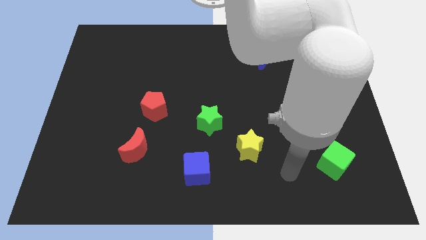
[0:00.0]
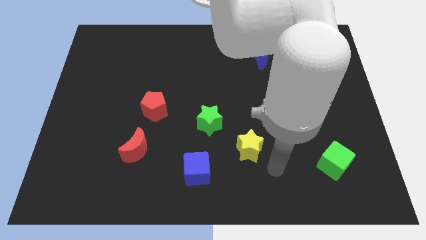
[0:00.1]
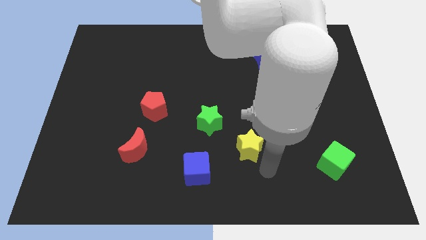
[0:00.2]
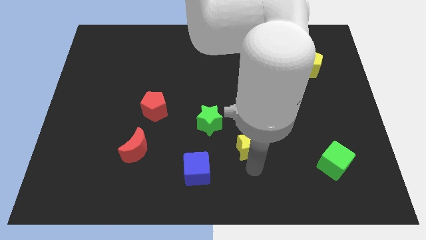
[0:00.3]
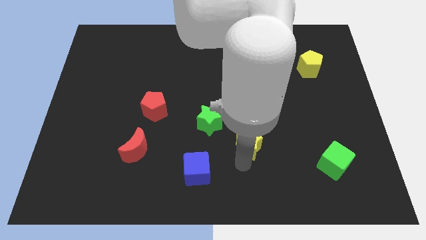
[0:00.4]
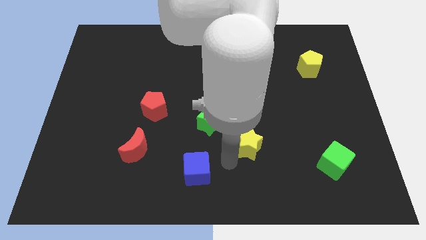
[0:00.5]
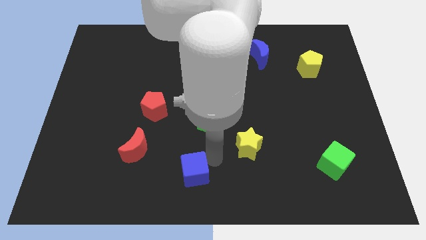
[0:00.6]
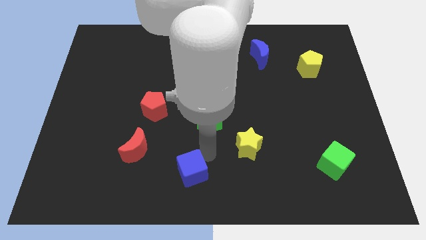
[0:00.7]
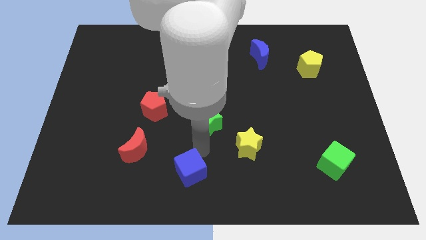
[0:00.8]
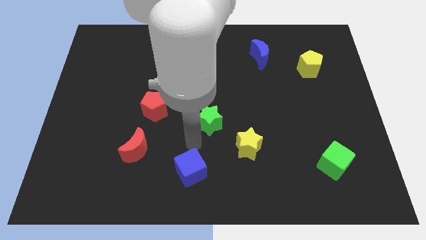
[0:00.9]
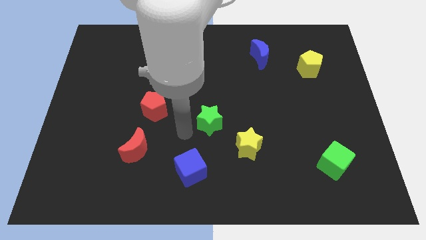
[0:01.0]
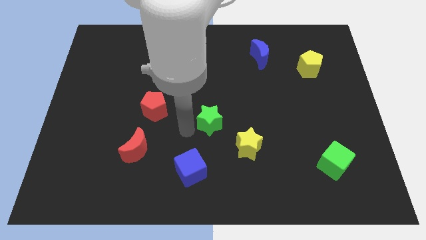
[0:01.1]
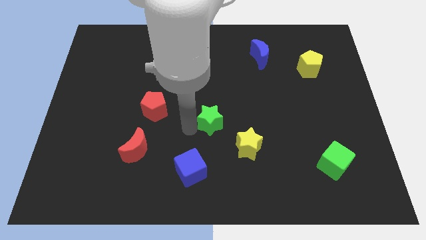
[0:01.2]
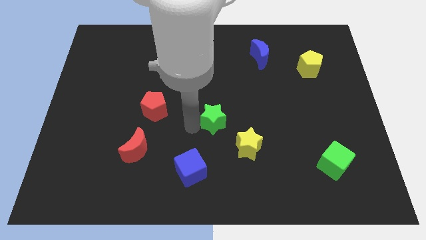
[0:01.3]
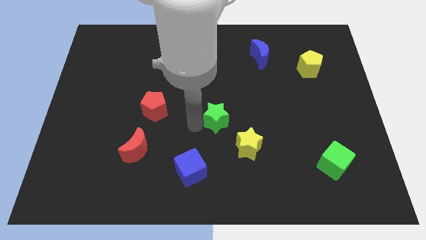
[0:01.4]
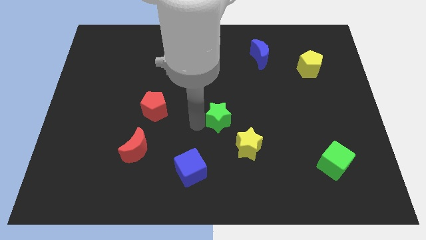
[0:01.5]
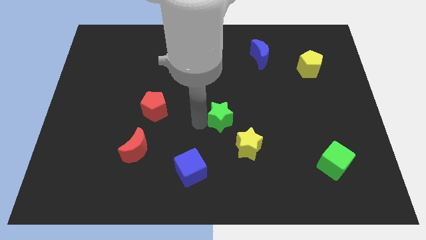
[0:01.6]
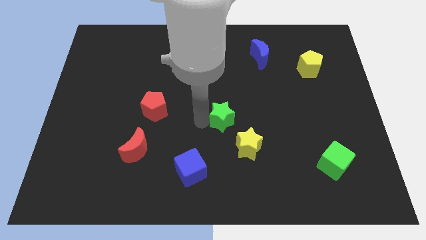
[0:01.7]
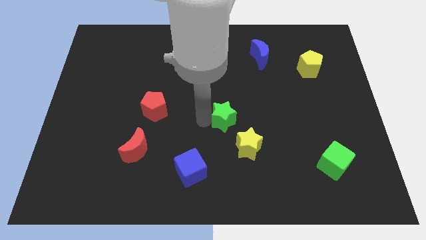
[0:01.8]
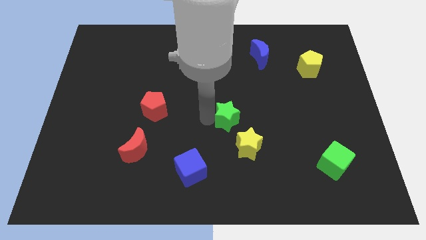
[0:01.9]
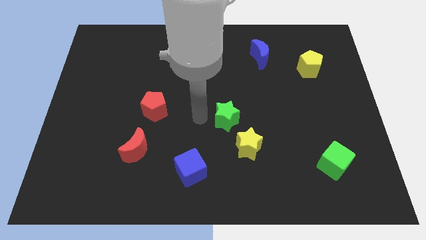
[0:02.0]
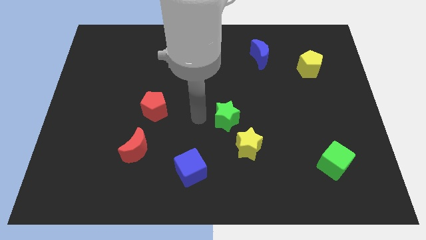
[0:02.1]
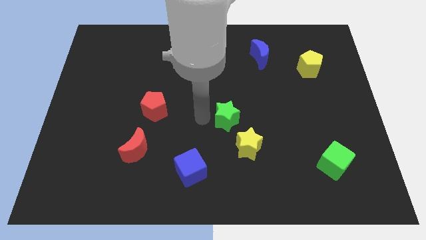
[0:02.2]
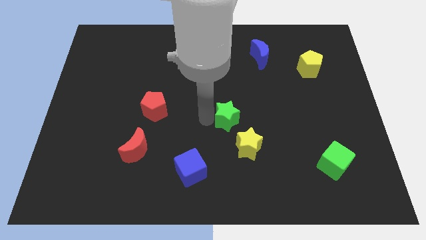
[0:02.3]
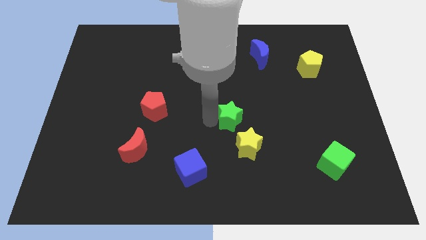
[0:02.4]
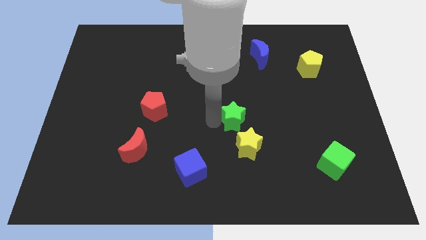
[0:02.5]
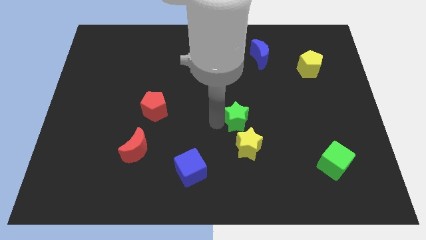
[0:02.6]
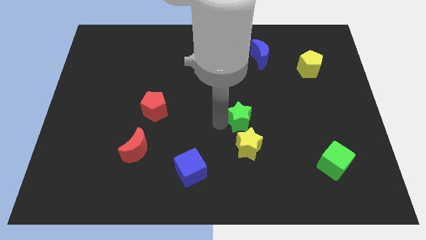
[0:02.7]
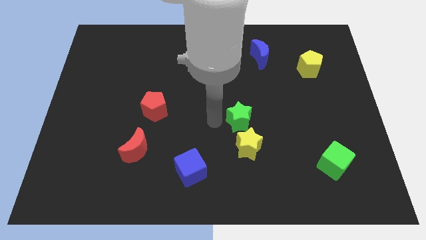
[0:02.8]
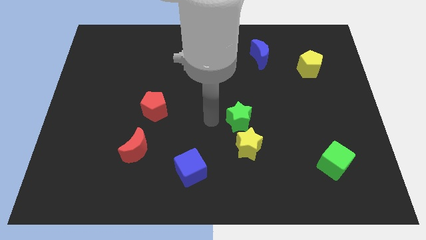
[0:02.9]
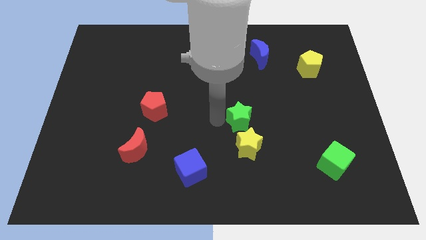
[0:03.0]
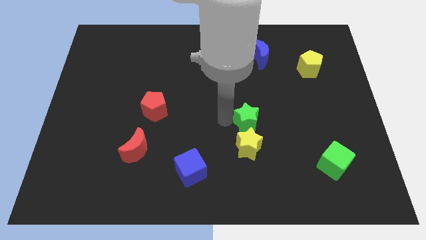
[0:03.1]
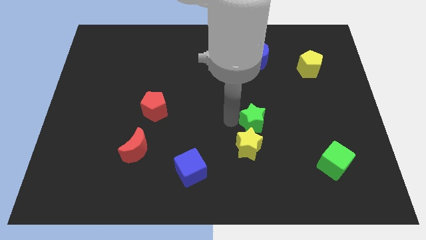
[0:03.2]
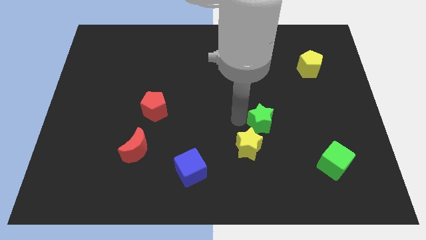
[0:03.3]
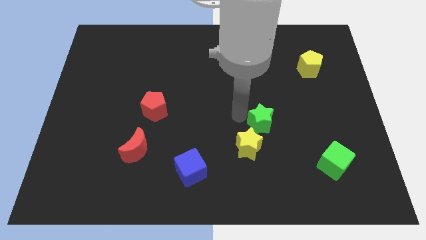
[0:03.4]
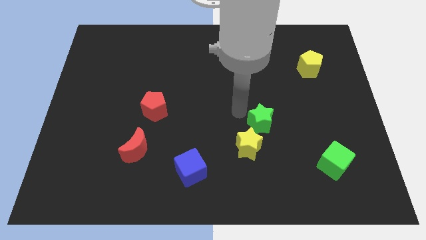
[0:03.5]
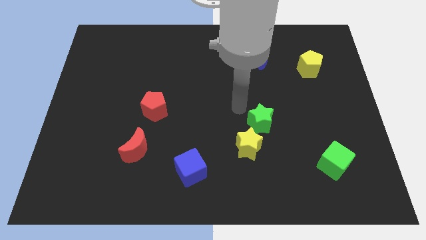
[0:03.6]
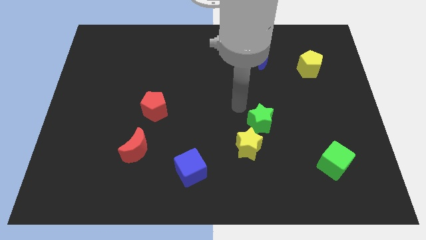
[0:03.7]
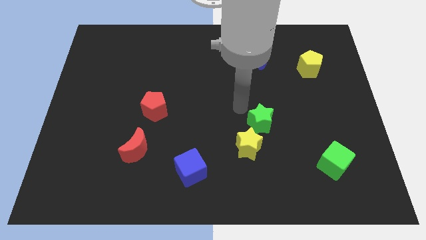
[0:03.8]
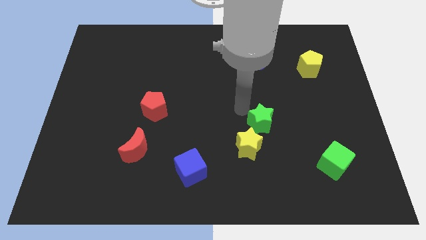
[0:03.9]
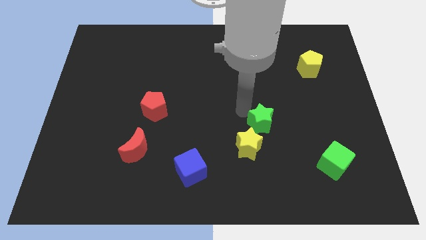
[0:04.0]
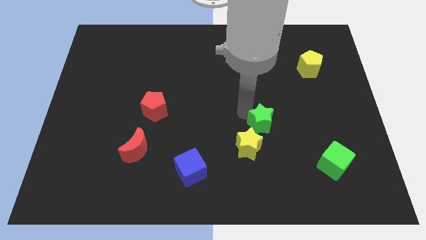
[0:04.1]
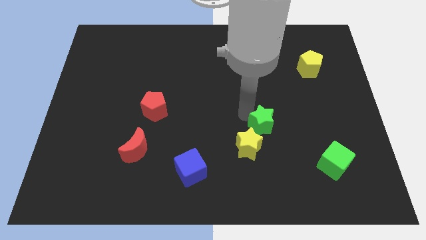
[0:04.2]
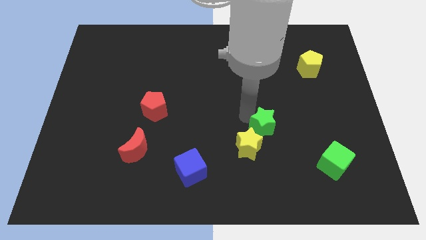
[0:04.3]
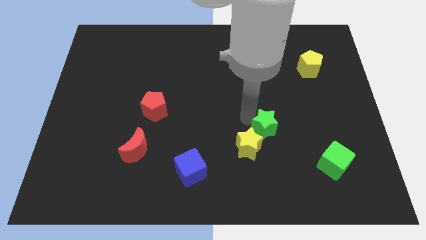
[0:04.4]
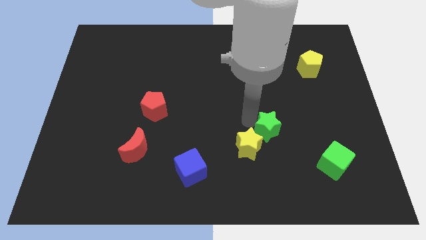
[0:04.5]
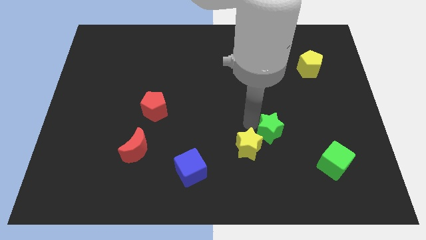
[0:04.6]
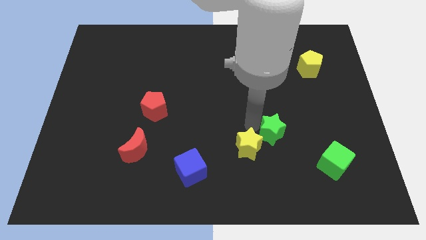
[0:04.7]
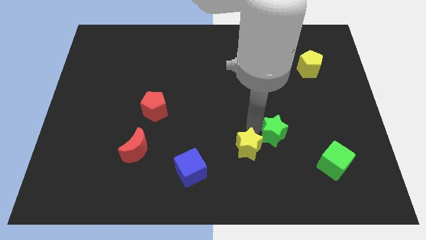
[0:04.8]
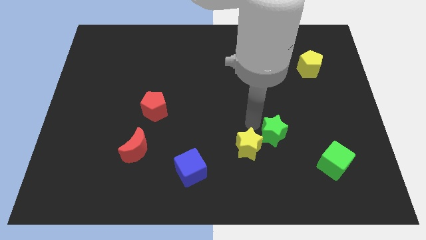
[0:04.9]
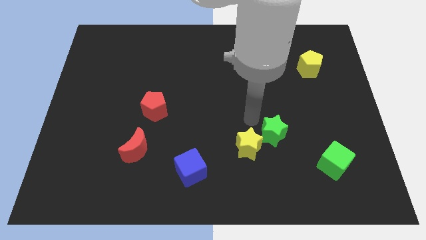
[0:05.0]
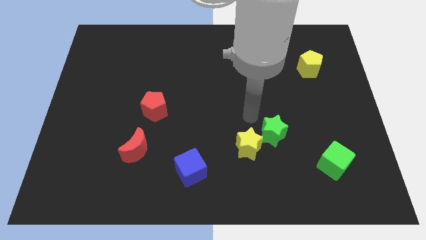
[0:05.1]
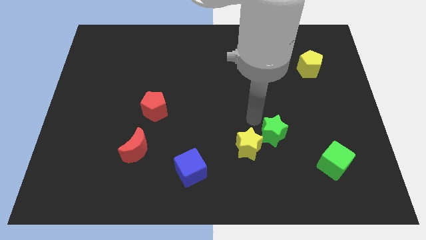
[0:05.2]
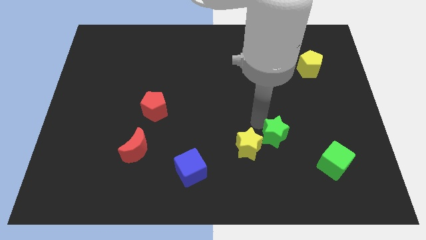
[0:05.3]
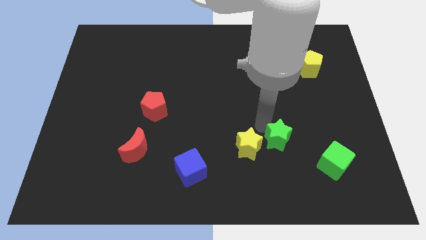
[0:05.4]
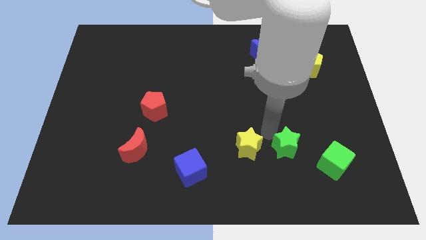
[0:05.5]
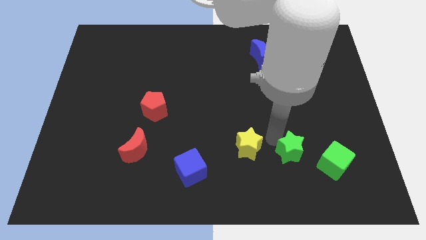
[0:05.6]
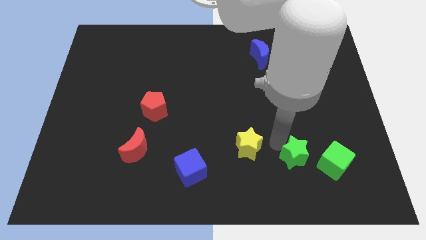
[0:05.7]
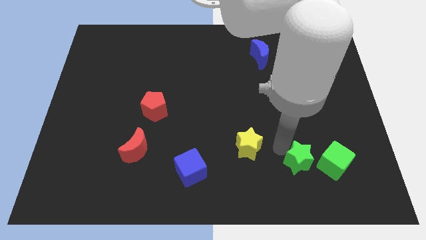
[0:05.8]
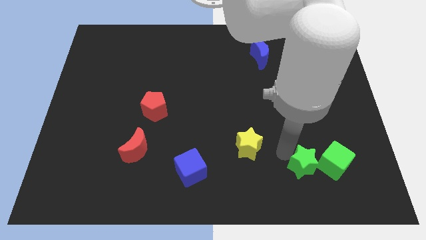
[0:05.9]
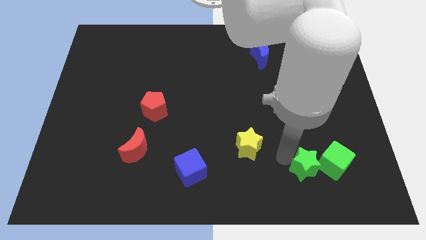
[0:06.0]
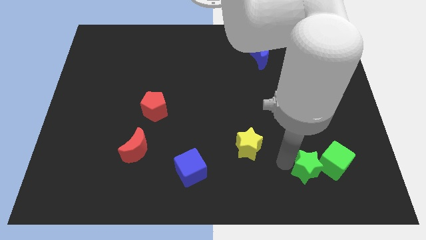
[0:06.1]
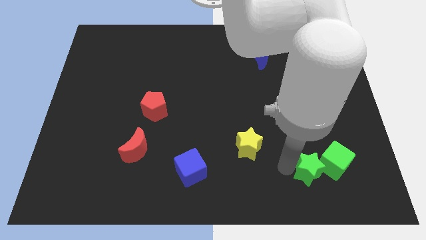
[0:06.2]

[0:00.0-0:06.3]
put the green star to the green cube
